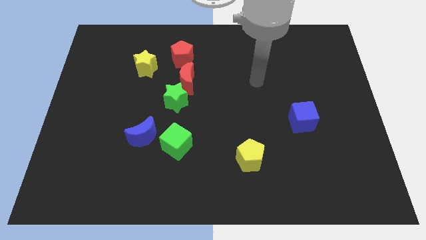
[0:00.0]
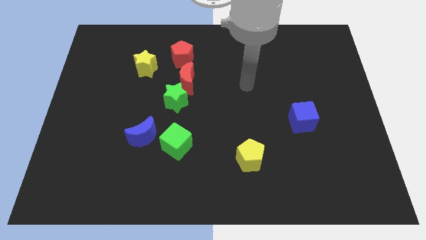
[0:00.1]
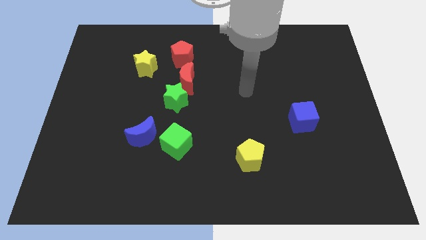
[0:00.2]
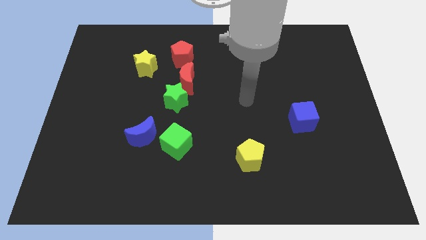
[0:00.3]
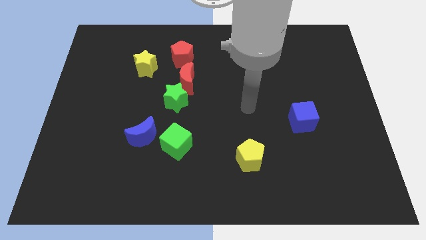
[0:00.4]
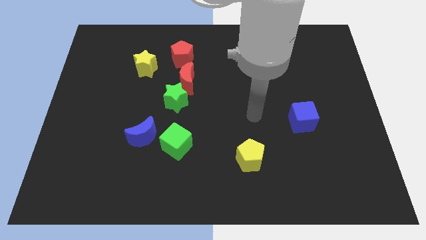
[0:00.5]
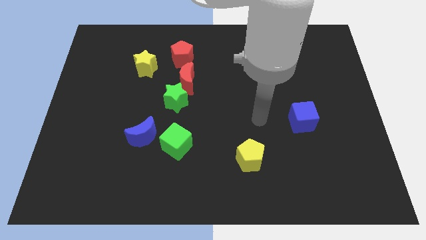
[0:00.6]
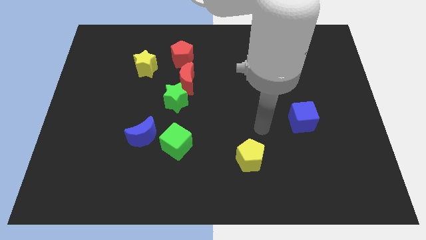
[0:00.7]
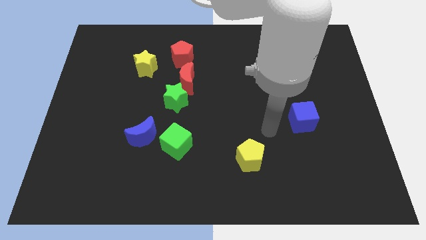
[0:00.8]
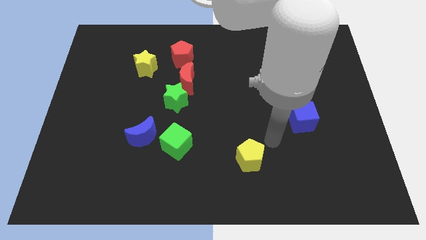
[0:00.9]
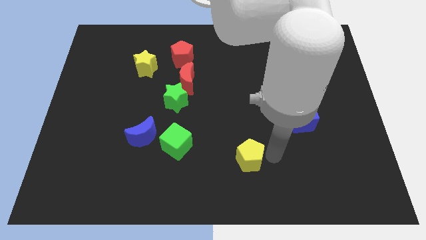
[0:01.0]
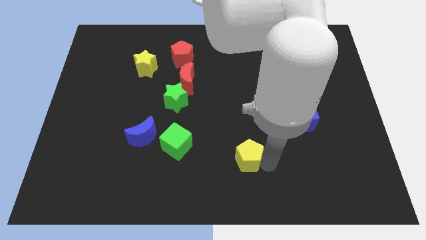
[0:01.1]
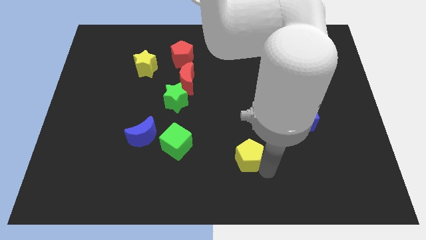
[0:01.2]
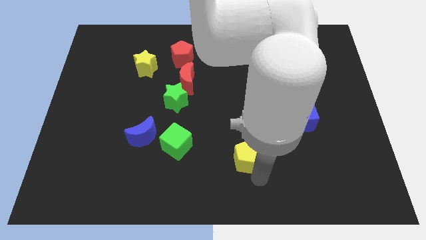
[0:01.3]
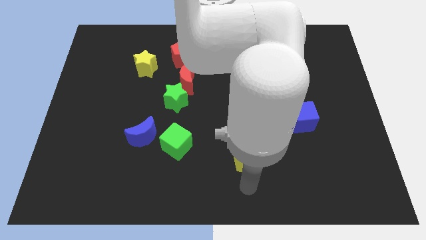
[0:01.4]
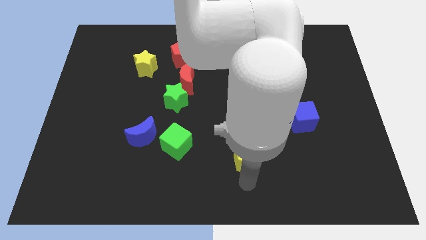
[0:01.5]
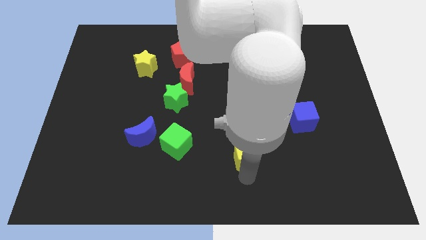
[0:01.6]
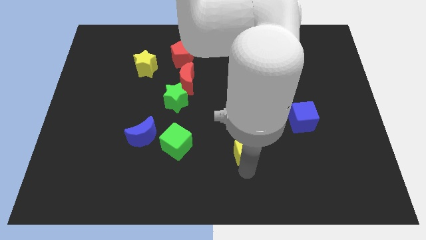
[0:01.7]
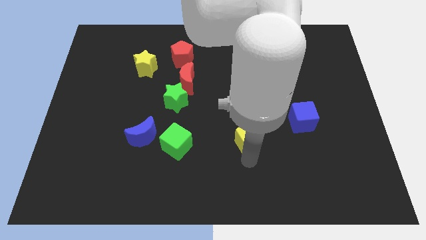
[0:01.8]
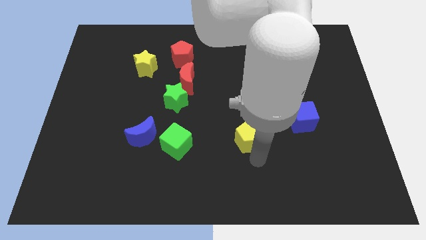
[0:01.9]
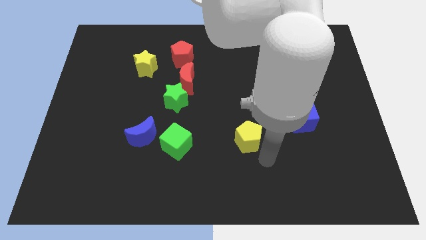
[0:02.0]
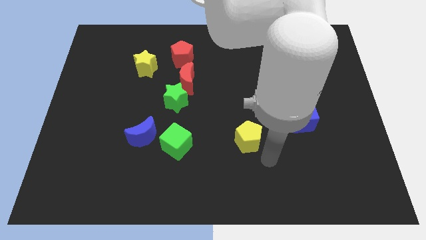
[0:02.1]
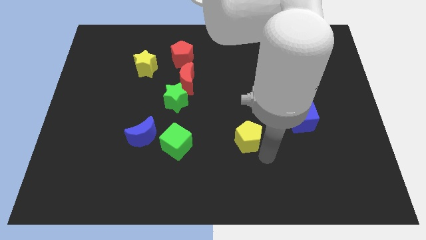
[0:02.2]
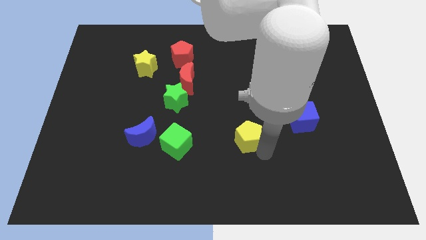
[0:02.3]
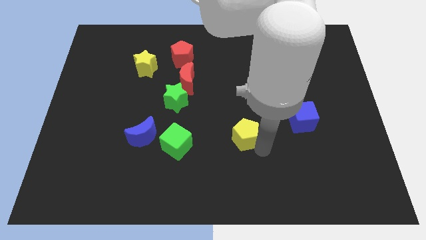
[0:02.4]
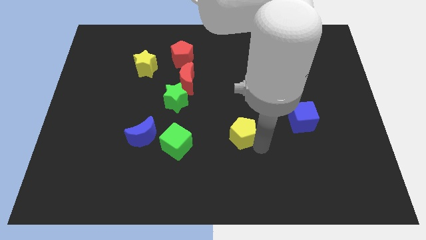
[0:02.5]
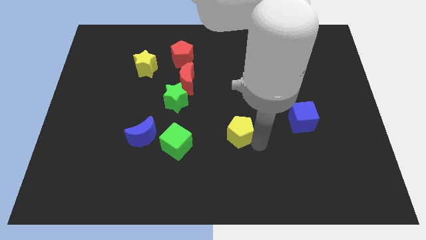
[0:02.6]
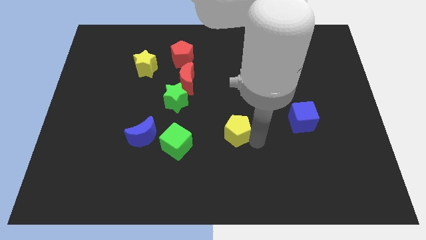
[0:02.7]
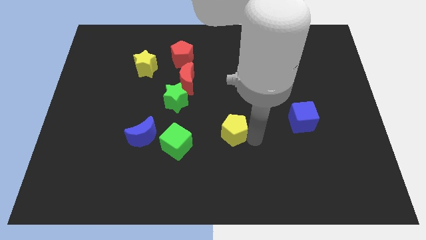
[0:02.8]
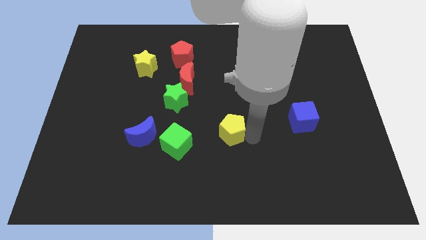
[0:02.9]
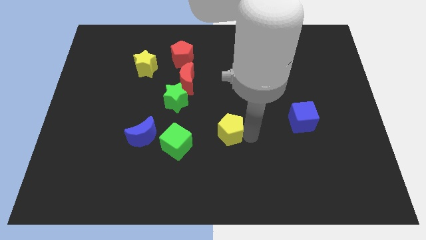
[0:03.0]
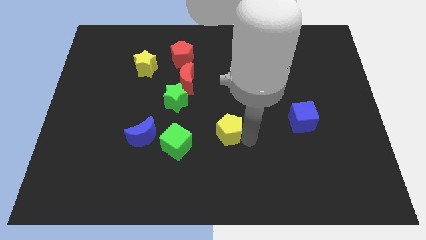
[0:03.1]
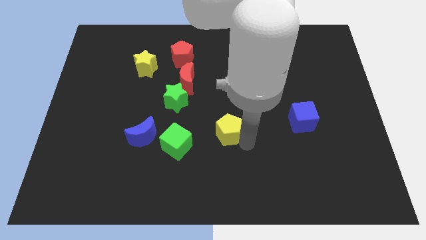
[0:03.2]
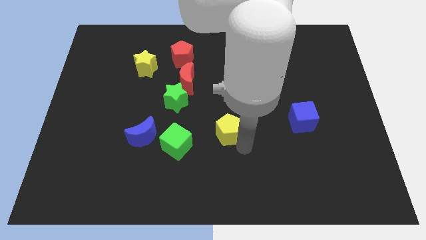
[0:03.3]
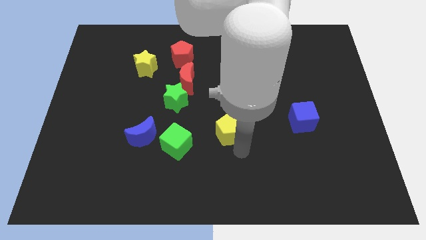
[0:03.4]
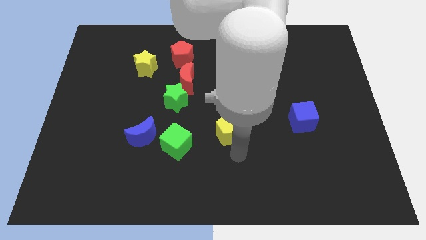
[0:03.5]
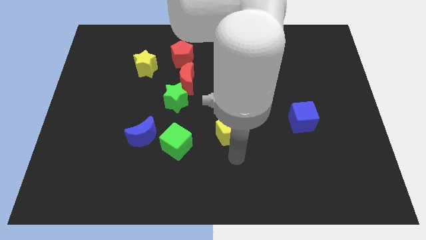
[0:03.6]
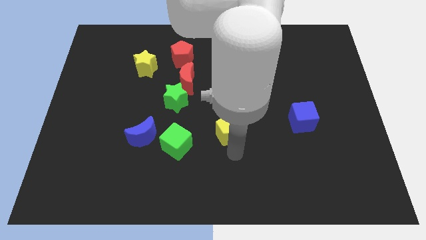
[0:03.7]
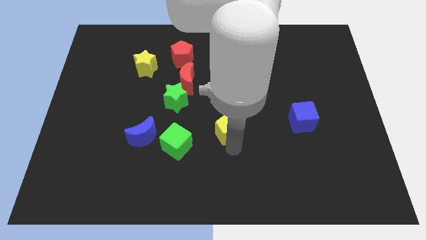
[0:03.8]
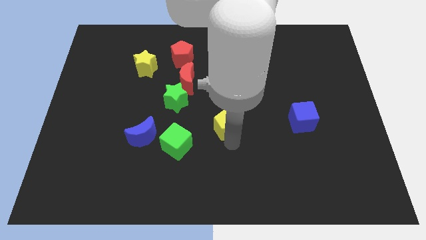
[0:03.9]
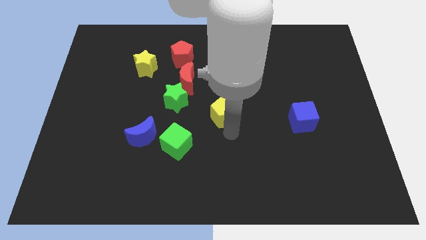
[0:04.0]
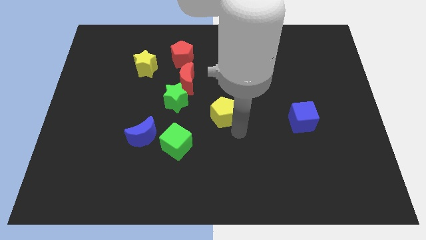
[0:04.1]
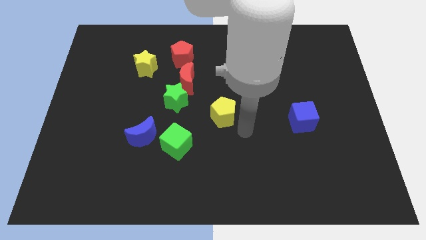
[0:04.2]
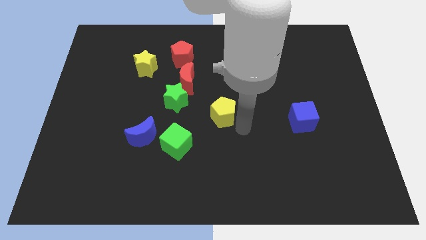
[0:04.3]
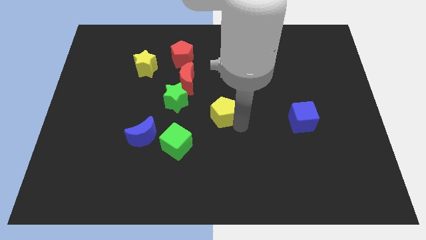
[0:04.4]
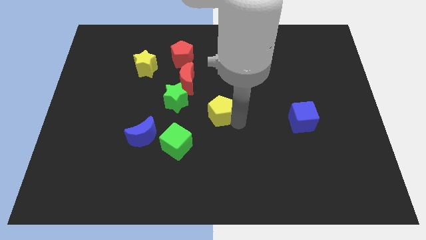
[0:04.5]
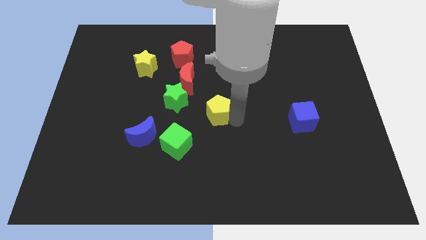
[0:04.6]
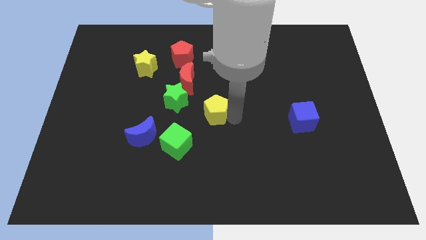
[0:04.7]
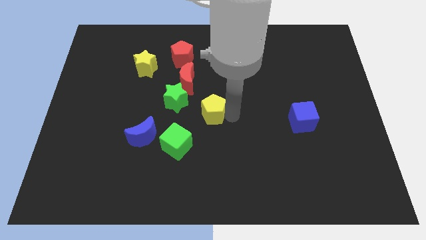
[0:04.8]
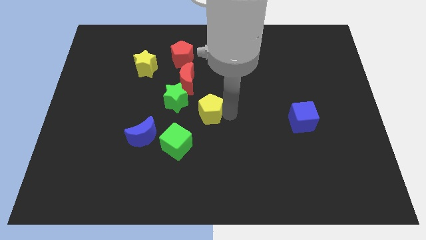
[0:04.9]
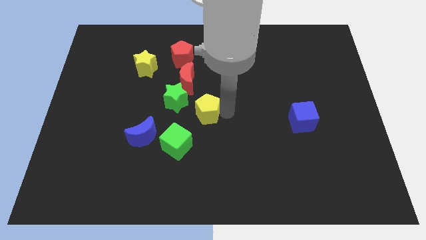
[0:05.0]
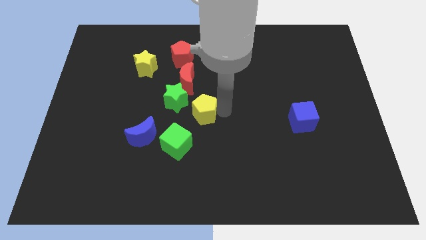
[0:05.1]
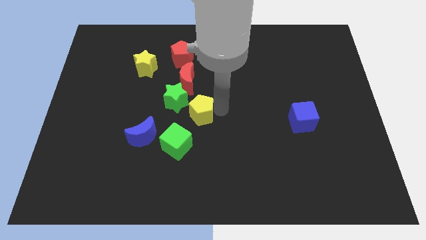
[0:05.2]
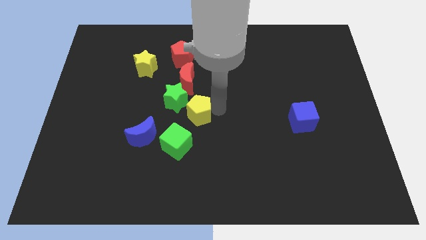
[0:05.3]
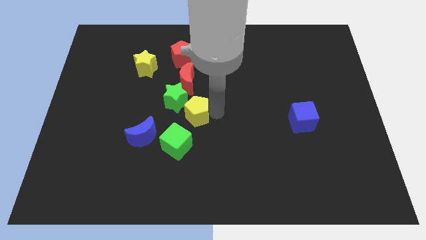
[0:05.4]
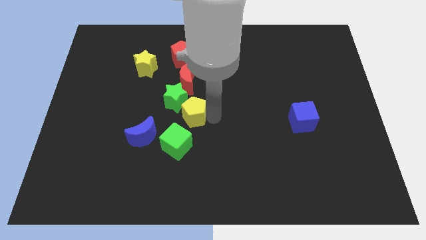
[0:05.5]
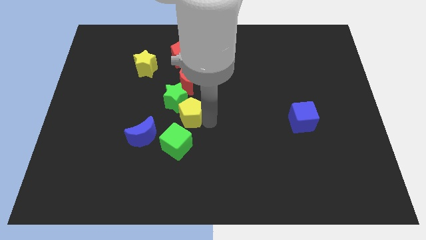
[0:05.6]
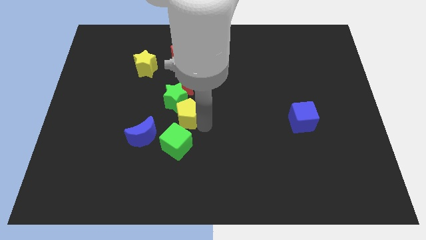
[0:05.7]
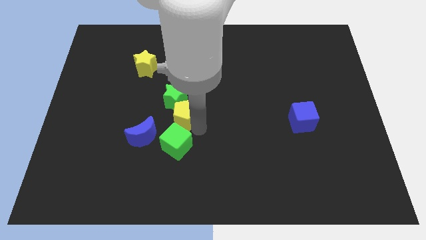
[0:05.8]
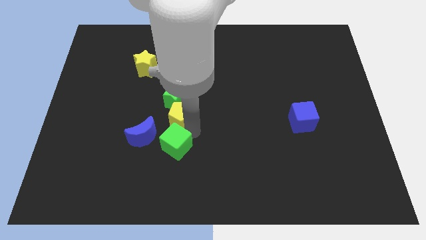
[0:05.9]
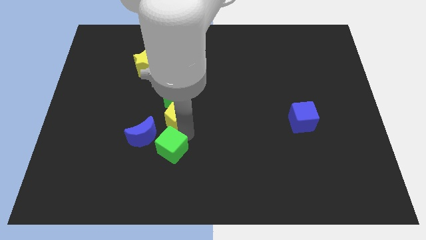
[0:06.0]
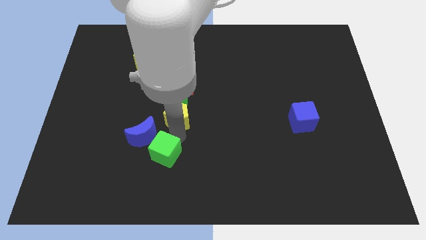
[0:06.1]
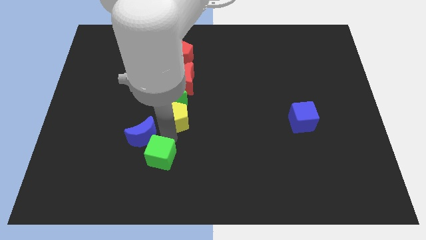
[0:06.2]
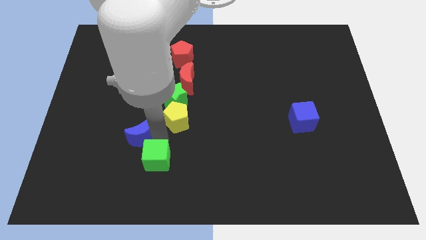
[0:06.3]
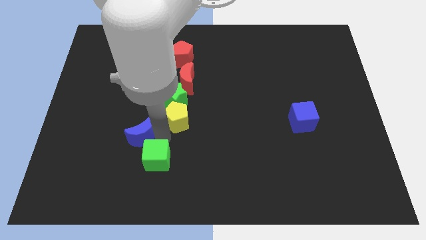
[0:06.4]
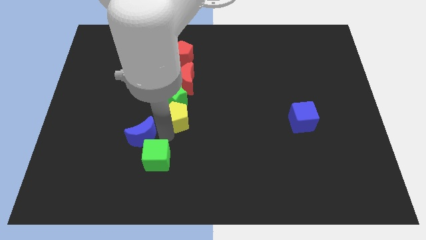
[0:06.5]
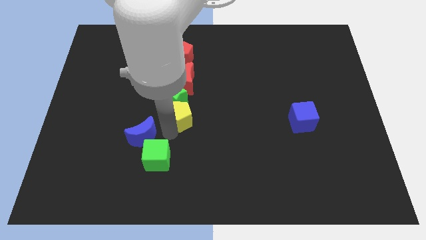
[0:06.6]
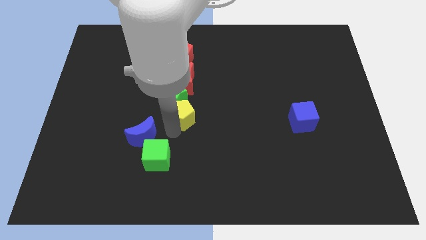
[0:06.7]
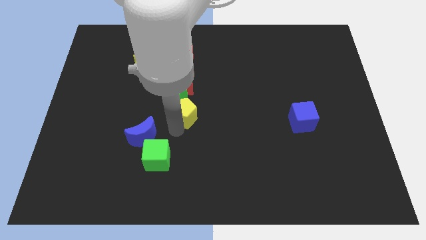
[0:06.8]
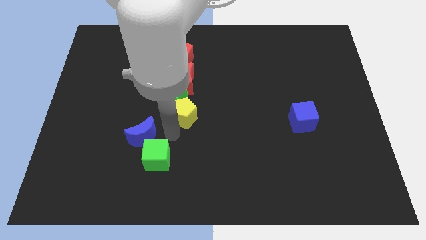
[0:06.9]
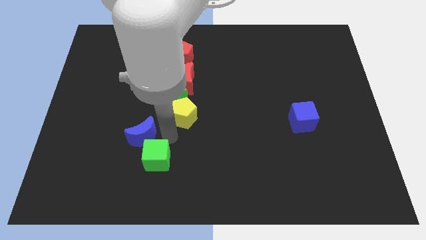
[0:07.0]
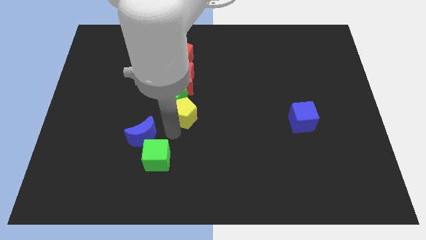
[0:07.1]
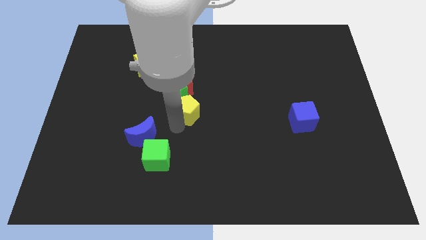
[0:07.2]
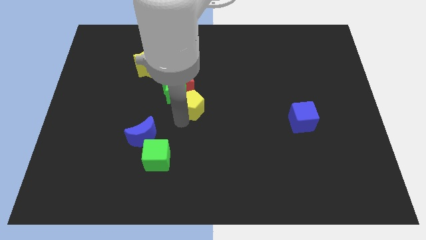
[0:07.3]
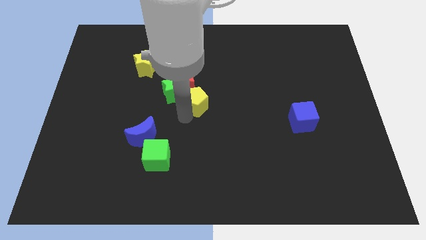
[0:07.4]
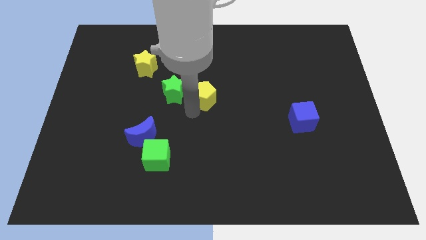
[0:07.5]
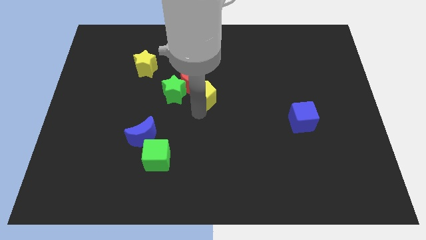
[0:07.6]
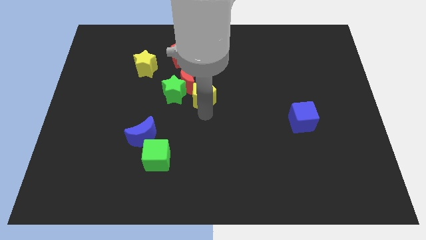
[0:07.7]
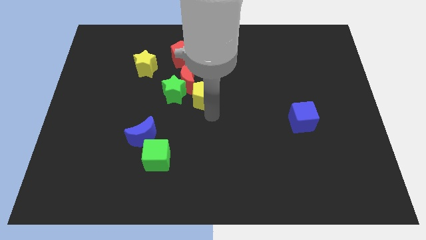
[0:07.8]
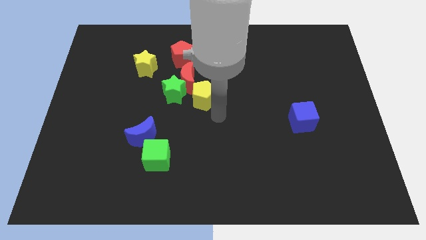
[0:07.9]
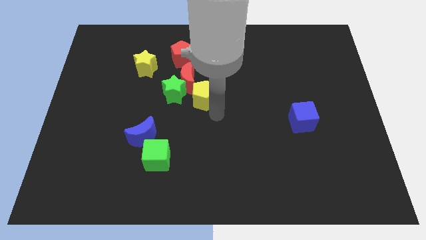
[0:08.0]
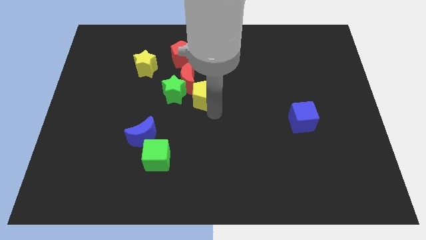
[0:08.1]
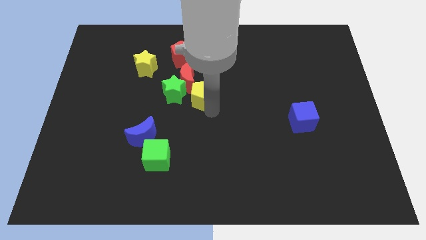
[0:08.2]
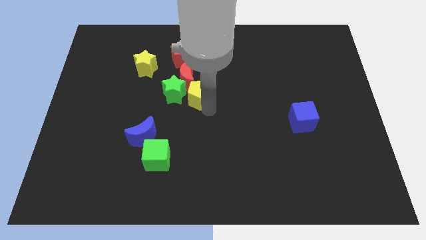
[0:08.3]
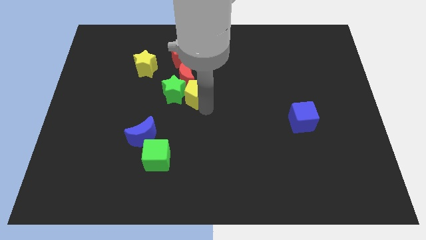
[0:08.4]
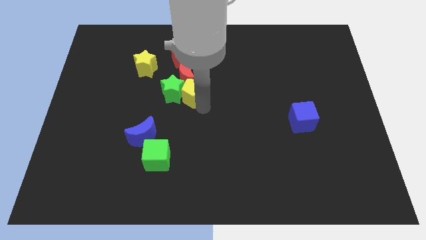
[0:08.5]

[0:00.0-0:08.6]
put the yellow pentagon next to the red moon
